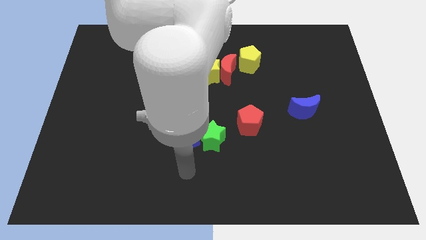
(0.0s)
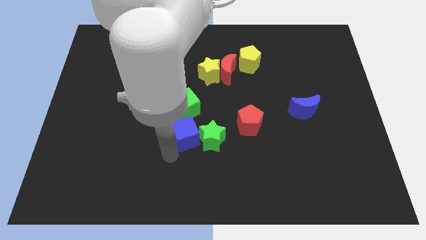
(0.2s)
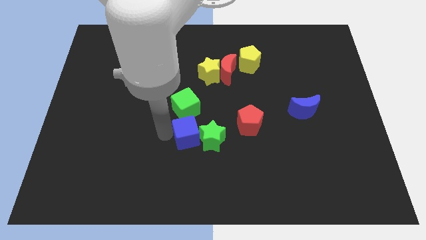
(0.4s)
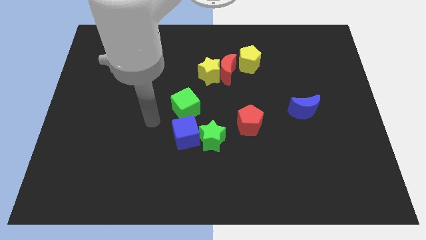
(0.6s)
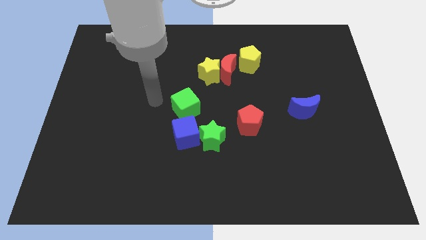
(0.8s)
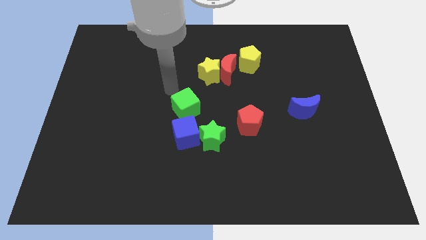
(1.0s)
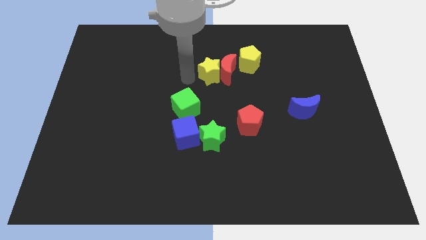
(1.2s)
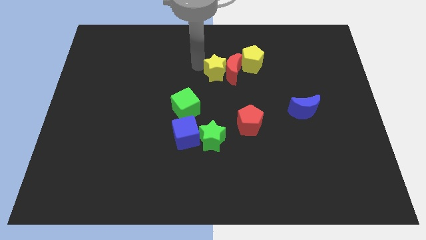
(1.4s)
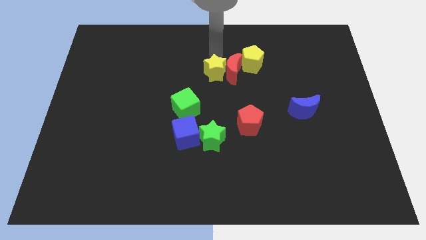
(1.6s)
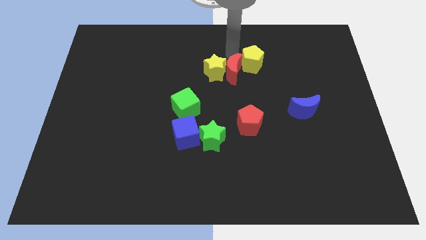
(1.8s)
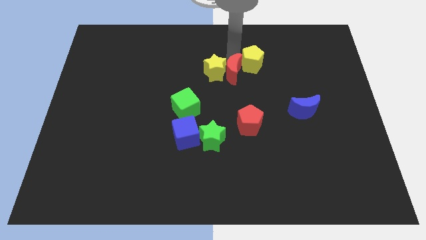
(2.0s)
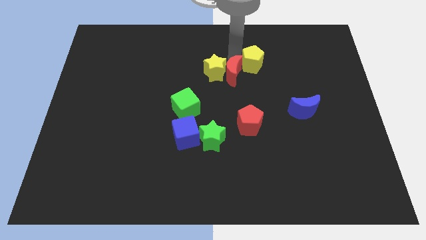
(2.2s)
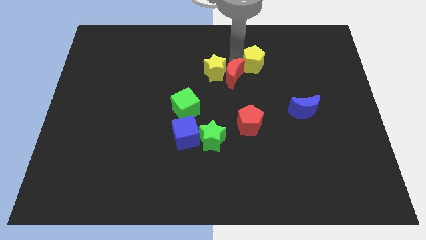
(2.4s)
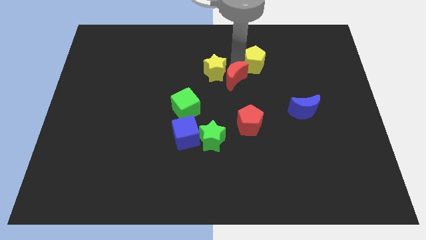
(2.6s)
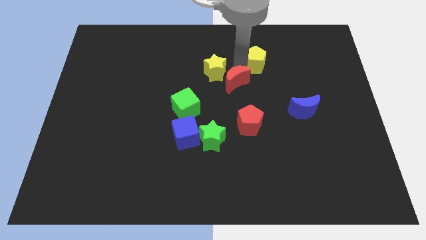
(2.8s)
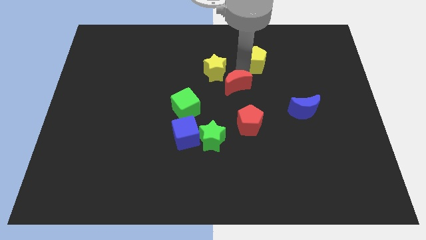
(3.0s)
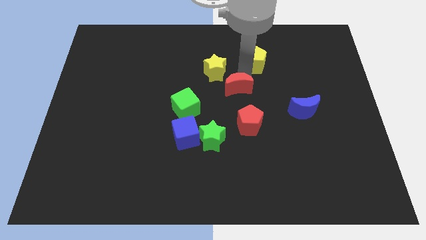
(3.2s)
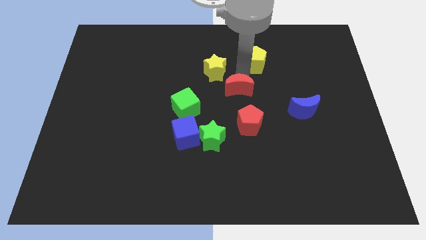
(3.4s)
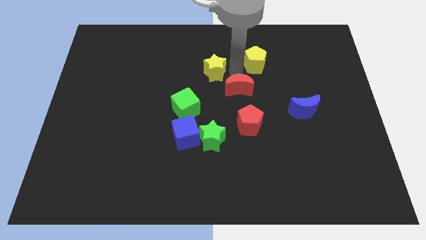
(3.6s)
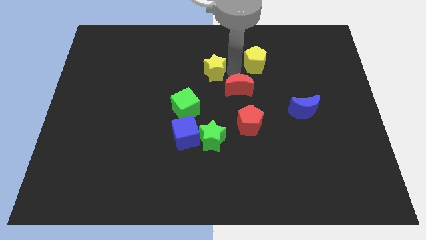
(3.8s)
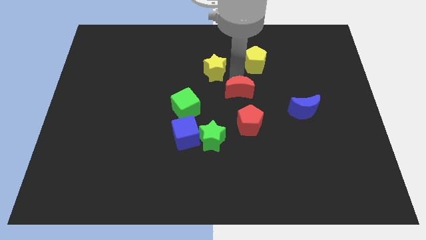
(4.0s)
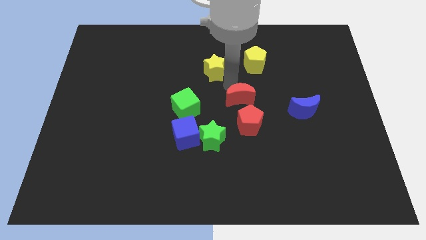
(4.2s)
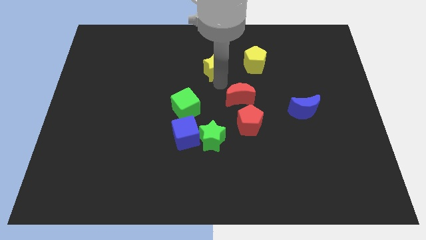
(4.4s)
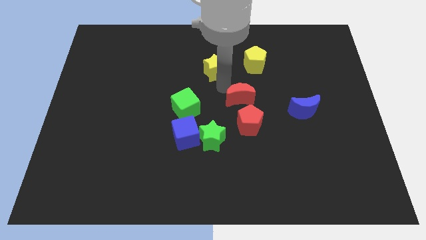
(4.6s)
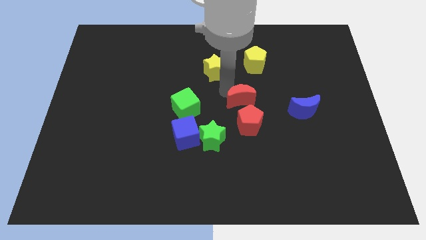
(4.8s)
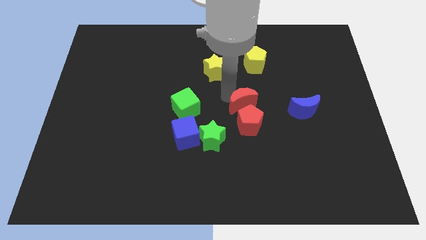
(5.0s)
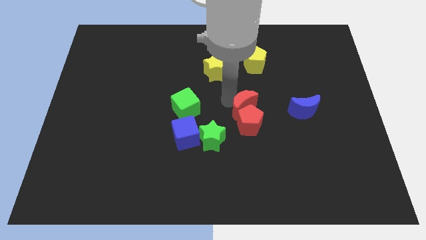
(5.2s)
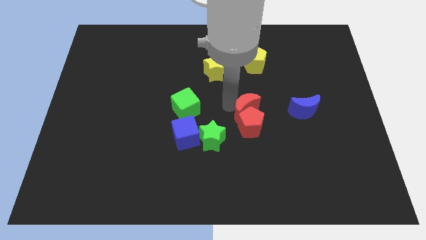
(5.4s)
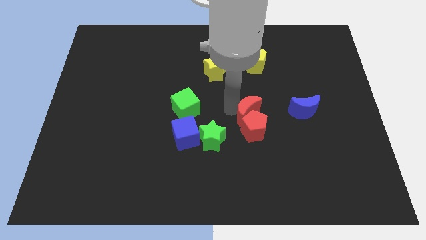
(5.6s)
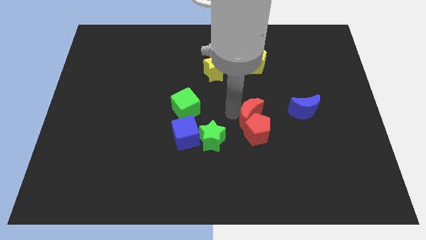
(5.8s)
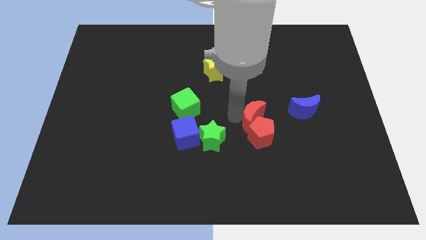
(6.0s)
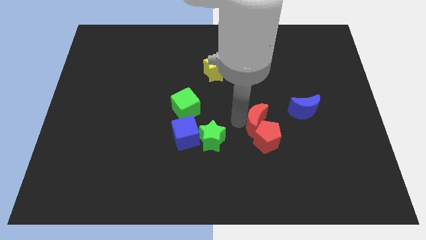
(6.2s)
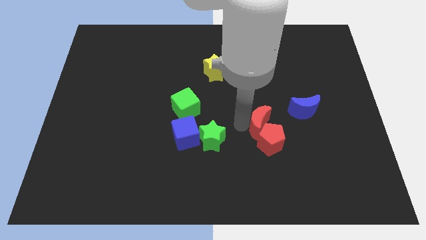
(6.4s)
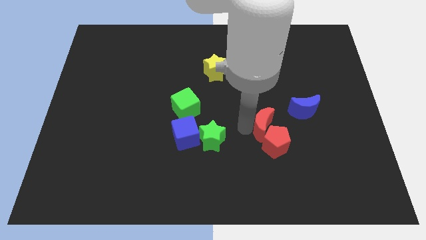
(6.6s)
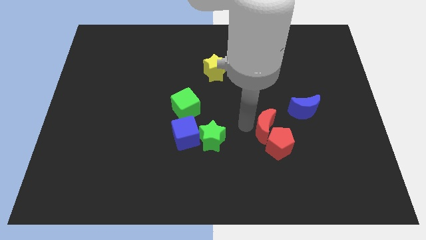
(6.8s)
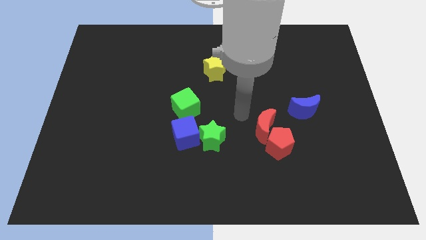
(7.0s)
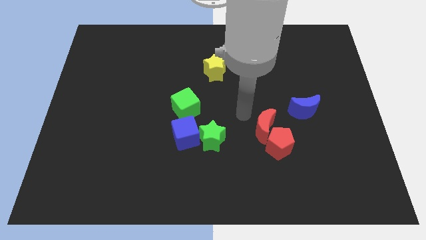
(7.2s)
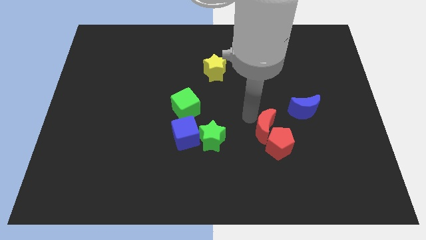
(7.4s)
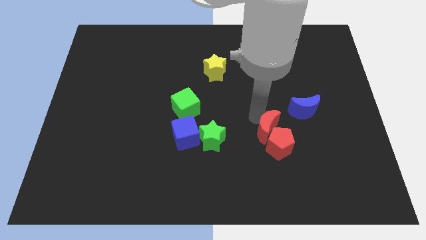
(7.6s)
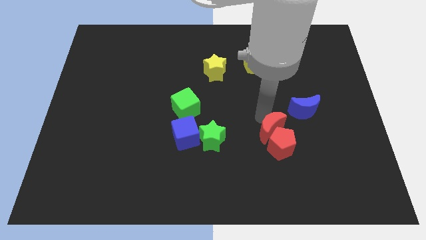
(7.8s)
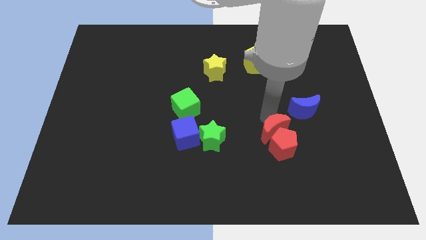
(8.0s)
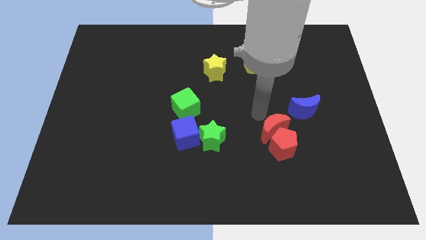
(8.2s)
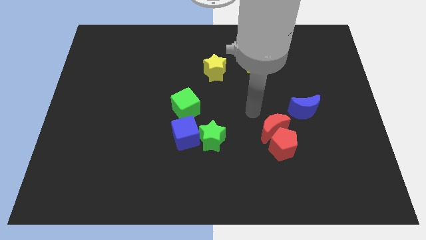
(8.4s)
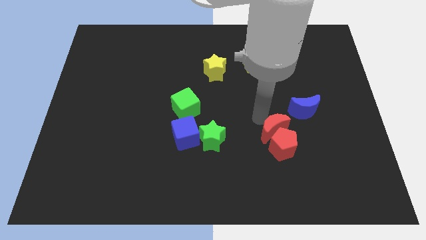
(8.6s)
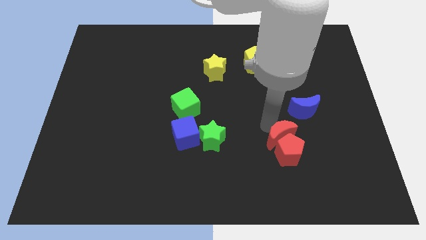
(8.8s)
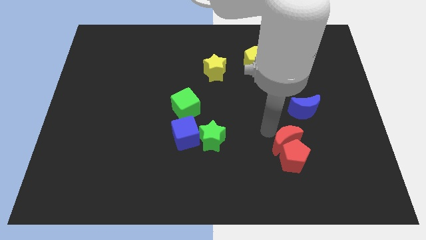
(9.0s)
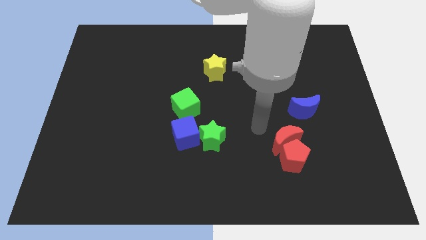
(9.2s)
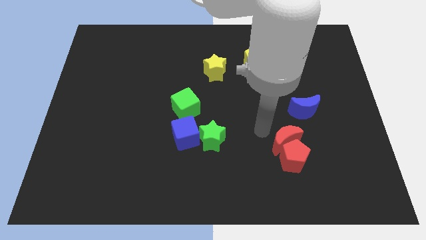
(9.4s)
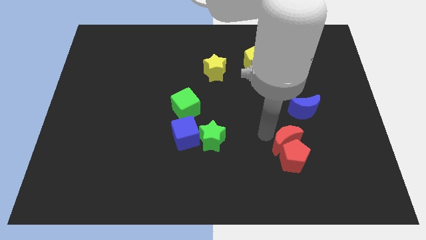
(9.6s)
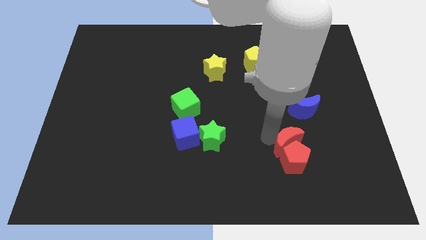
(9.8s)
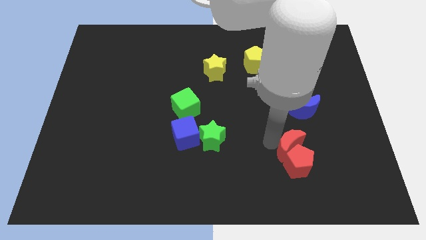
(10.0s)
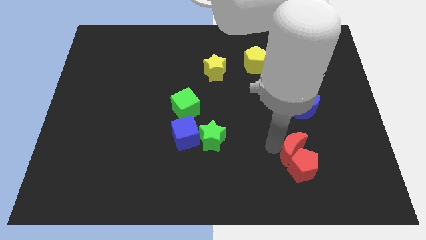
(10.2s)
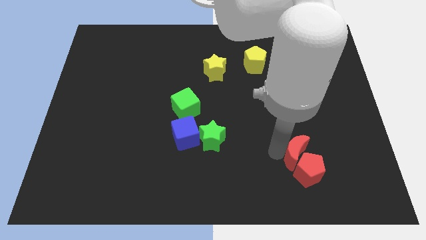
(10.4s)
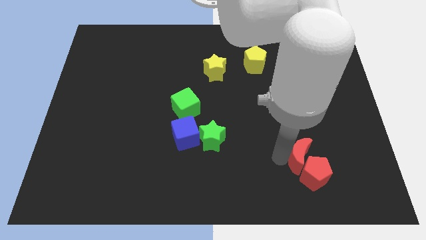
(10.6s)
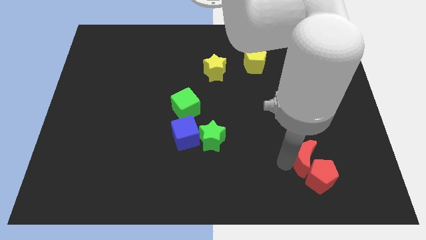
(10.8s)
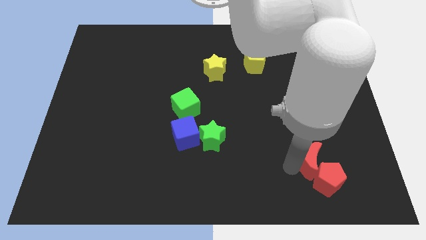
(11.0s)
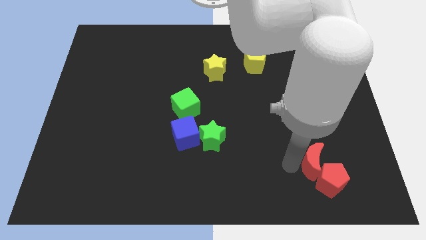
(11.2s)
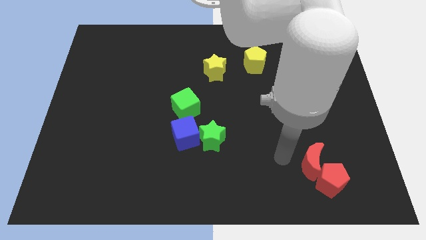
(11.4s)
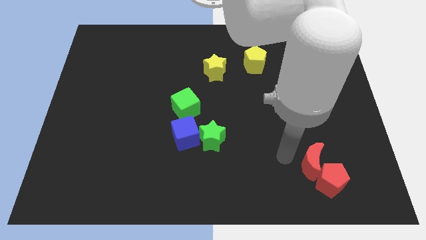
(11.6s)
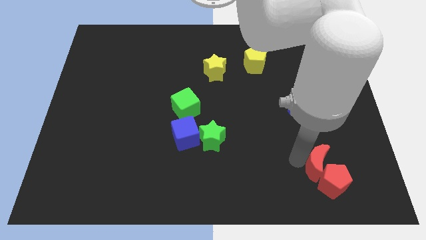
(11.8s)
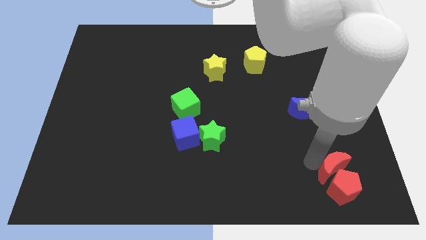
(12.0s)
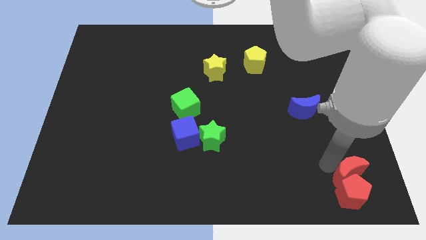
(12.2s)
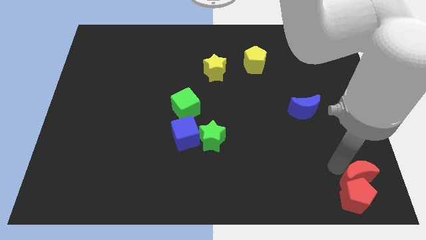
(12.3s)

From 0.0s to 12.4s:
push the red moon to the bottom right of the board

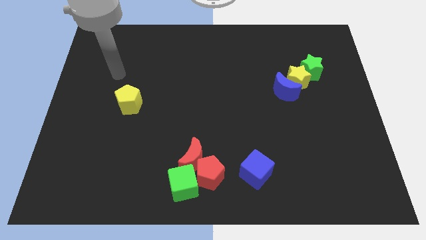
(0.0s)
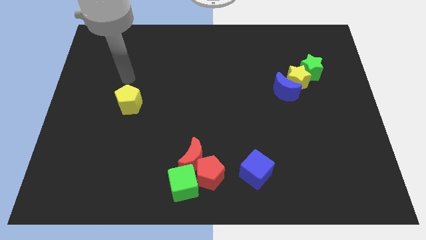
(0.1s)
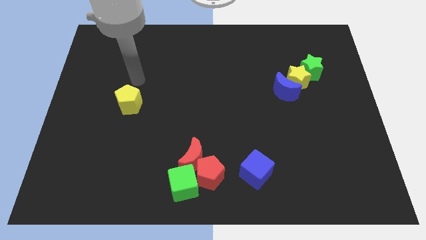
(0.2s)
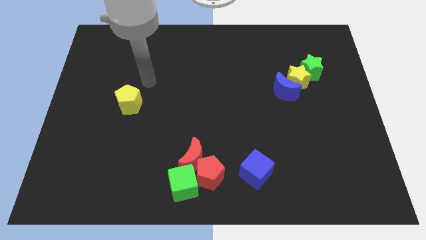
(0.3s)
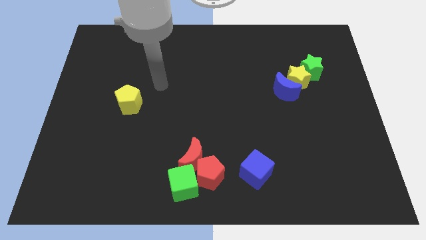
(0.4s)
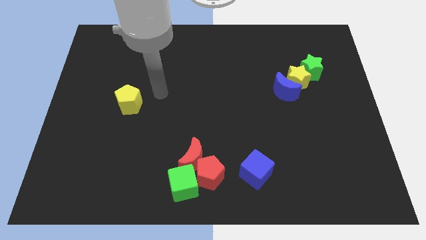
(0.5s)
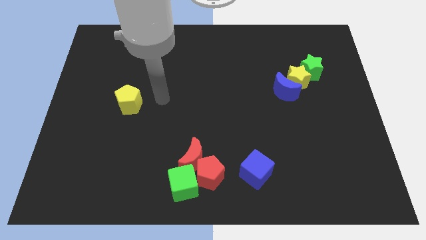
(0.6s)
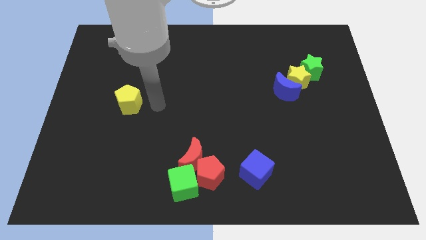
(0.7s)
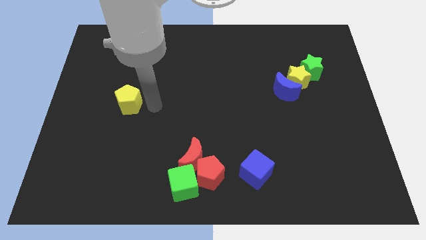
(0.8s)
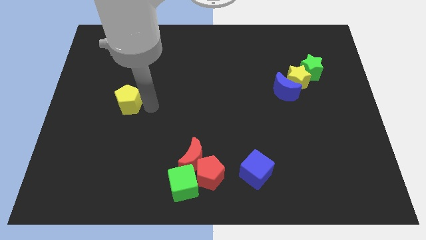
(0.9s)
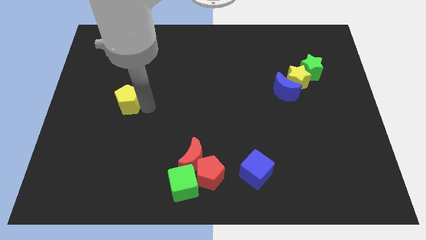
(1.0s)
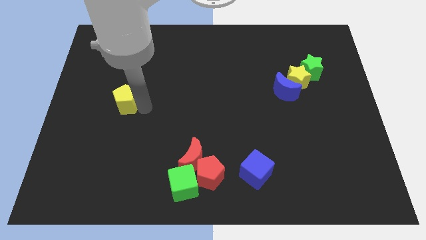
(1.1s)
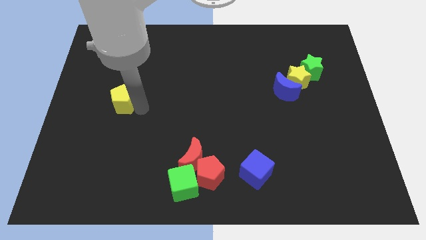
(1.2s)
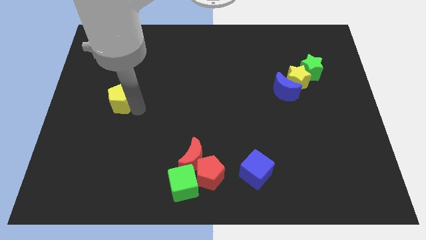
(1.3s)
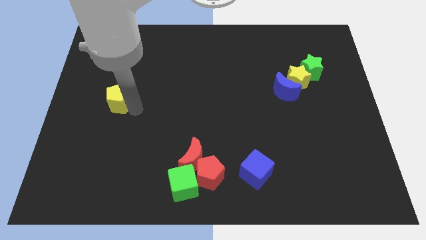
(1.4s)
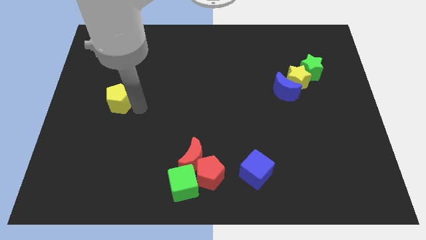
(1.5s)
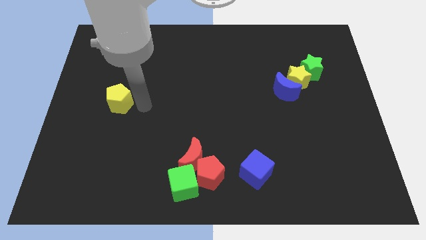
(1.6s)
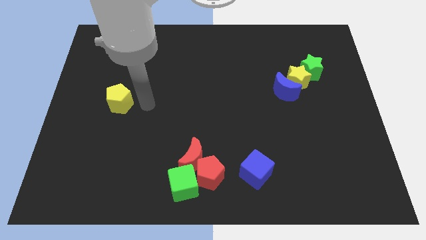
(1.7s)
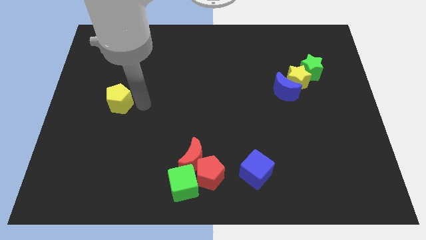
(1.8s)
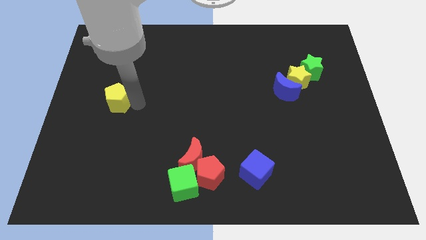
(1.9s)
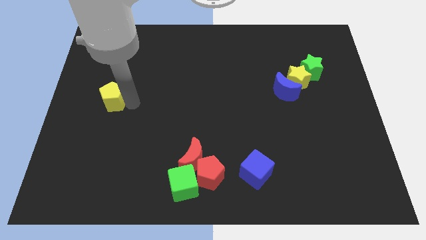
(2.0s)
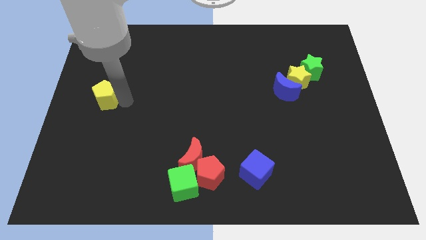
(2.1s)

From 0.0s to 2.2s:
push the yellow pentagon to the left side of the board
